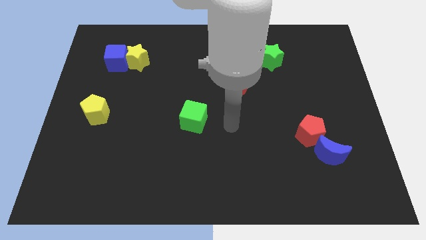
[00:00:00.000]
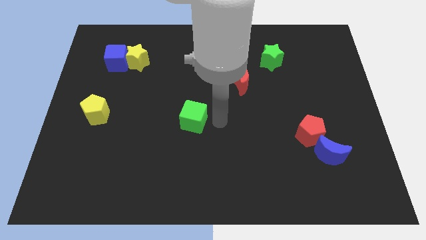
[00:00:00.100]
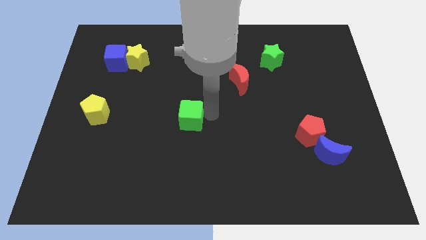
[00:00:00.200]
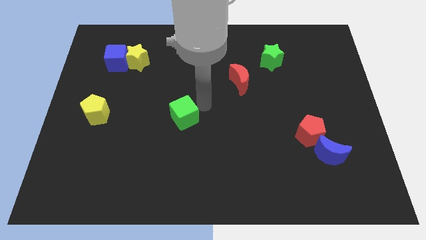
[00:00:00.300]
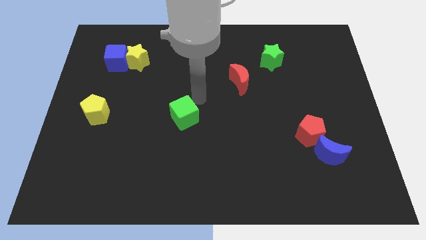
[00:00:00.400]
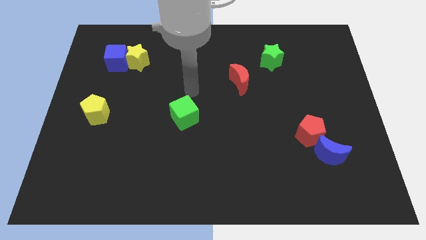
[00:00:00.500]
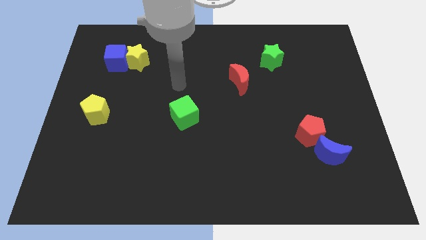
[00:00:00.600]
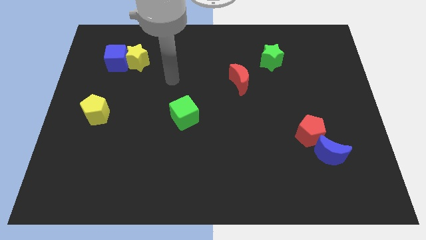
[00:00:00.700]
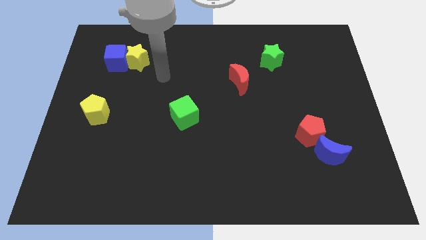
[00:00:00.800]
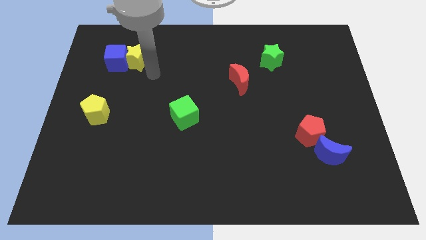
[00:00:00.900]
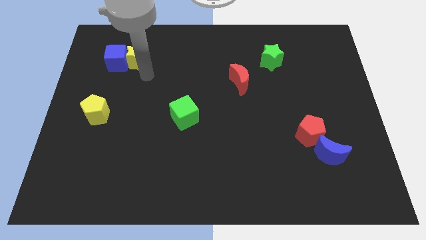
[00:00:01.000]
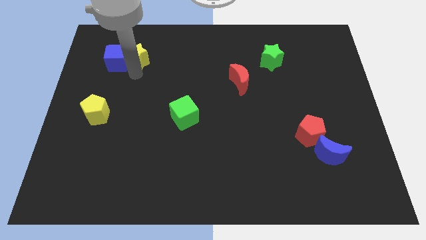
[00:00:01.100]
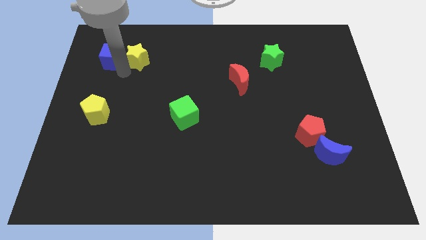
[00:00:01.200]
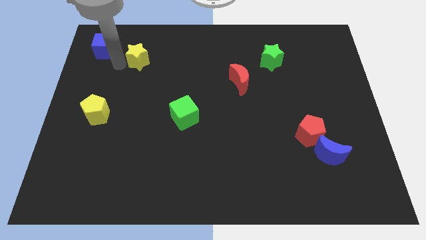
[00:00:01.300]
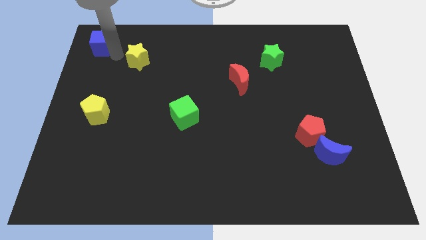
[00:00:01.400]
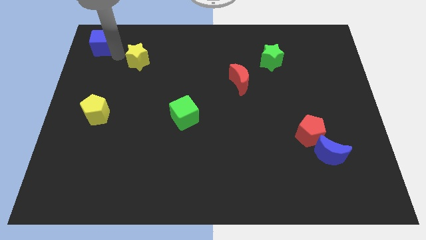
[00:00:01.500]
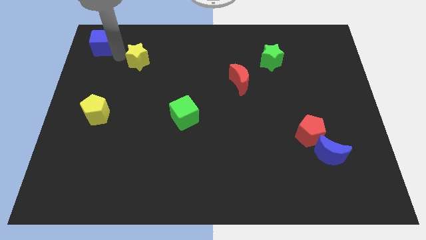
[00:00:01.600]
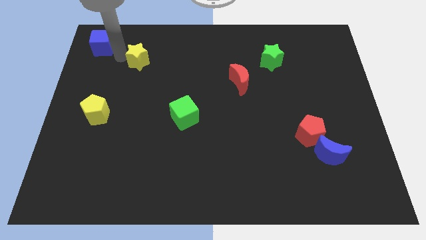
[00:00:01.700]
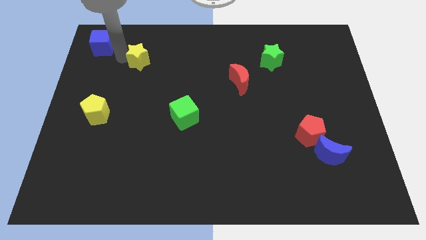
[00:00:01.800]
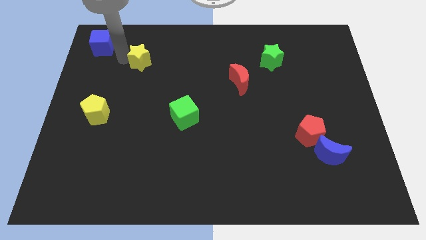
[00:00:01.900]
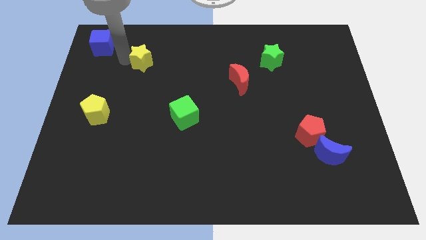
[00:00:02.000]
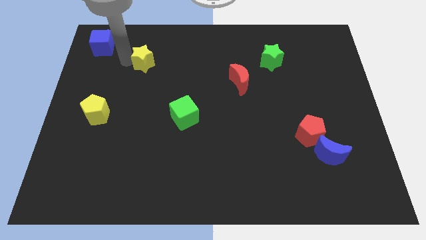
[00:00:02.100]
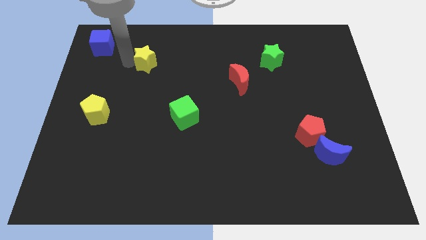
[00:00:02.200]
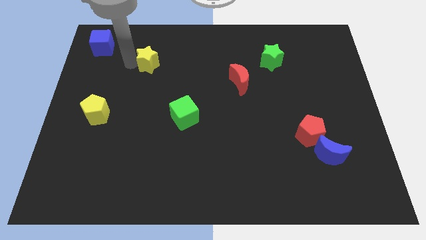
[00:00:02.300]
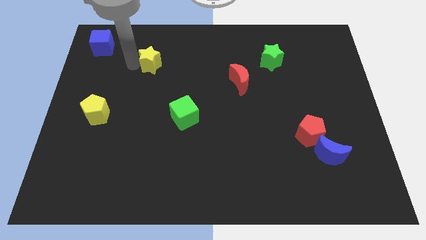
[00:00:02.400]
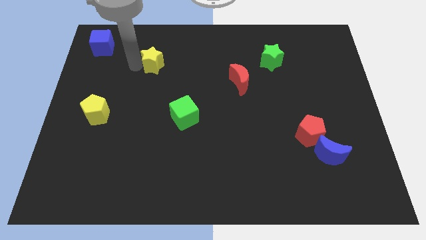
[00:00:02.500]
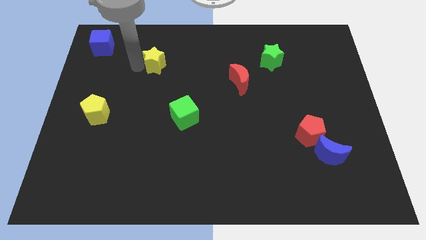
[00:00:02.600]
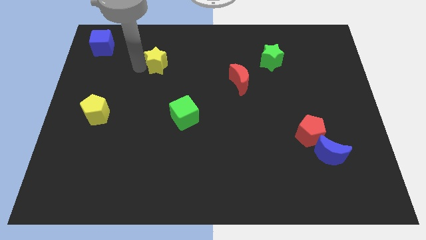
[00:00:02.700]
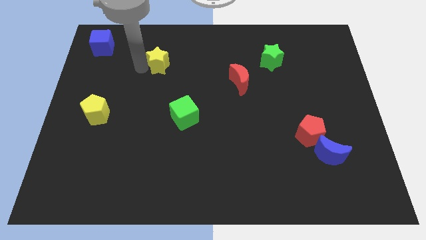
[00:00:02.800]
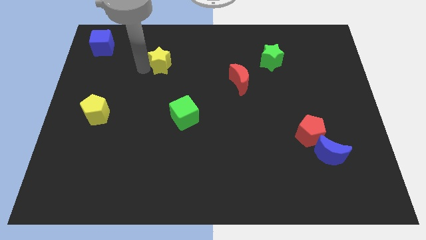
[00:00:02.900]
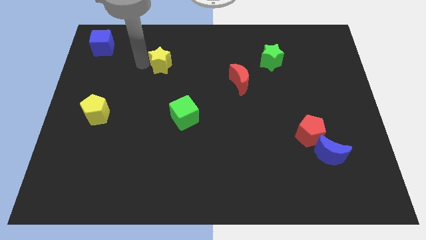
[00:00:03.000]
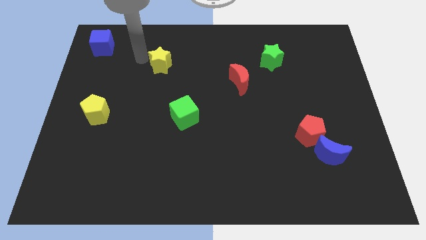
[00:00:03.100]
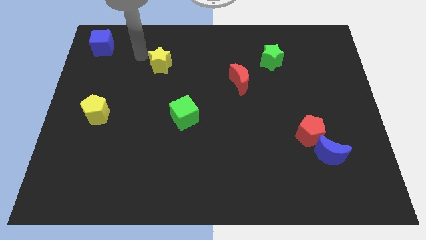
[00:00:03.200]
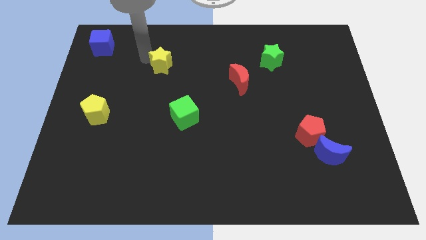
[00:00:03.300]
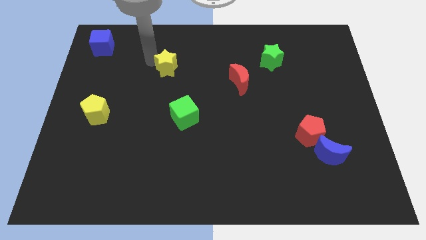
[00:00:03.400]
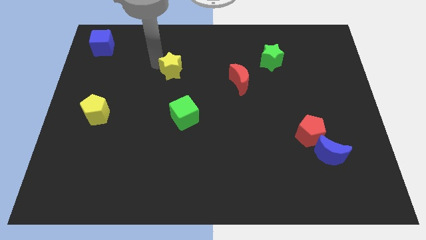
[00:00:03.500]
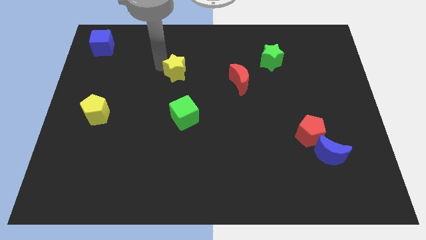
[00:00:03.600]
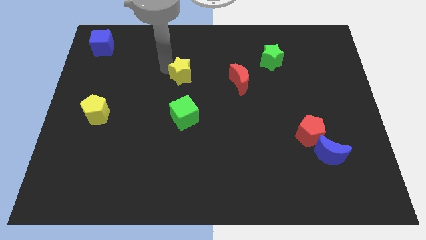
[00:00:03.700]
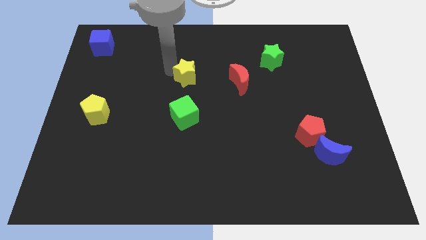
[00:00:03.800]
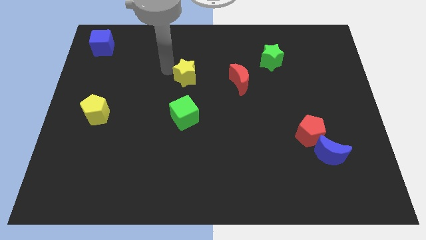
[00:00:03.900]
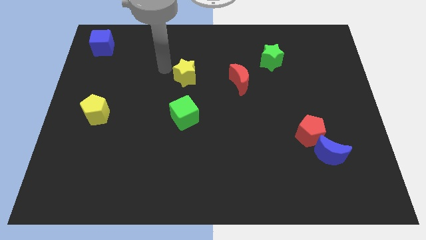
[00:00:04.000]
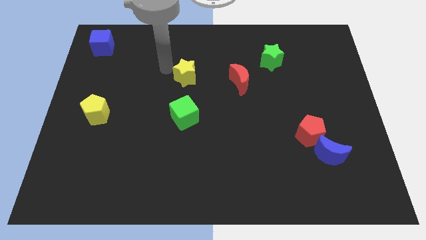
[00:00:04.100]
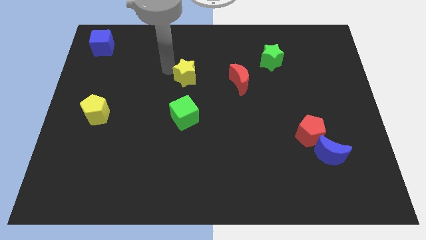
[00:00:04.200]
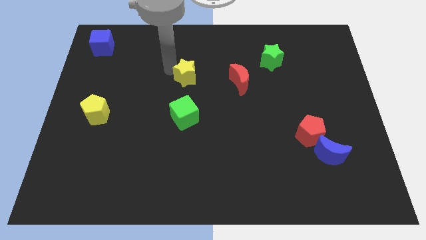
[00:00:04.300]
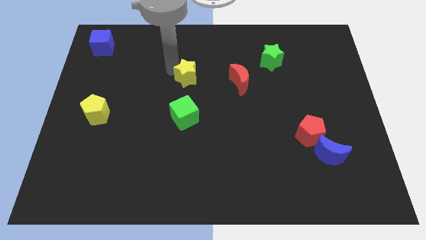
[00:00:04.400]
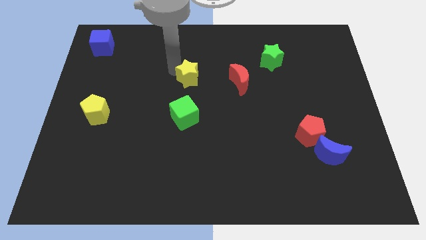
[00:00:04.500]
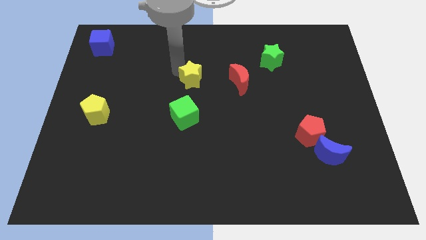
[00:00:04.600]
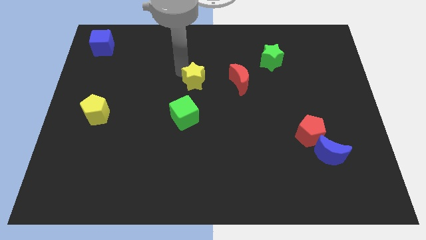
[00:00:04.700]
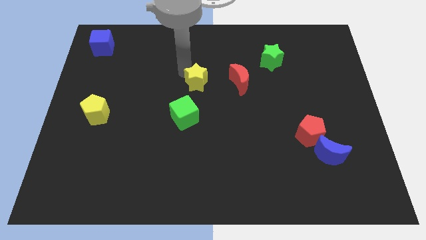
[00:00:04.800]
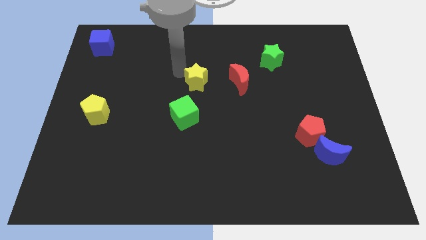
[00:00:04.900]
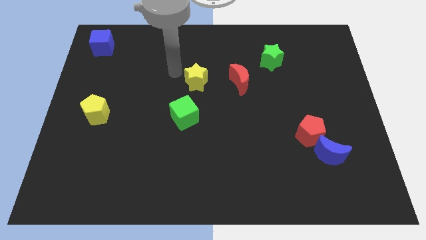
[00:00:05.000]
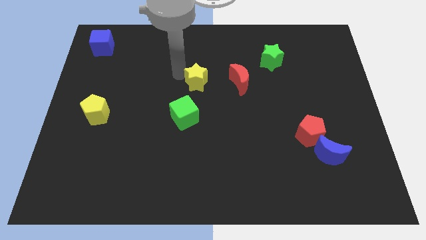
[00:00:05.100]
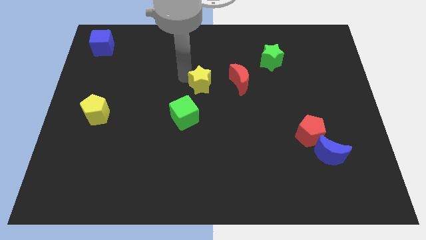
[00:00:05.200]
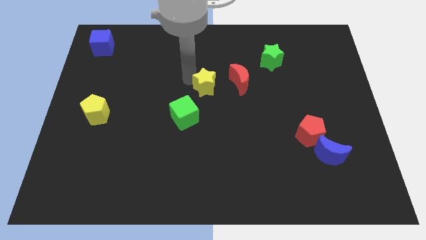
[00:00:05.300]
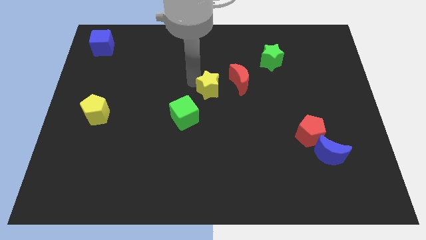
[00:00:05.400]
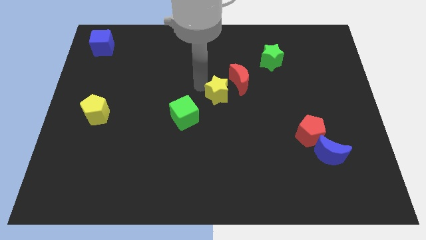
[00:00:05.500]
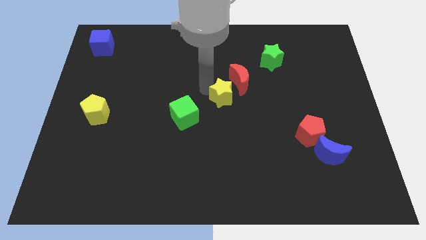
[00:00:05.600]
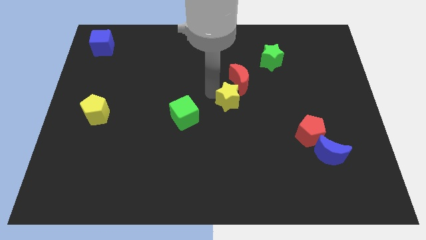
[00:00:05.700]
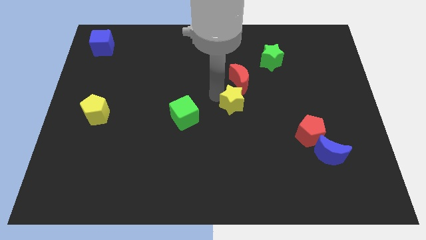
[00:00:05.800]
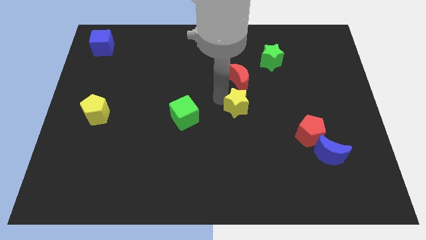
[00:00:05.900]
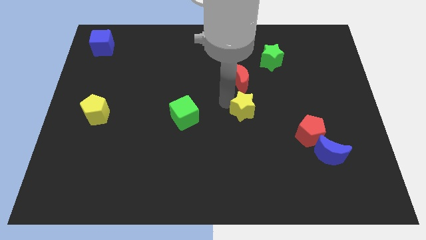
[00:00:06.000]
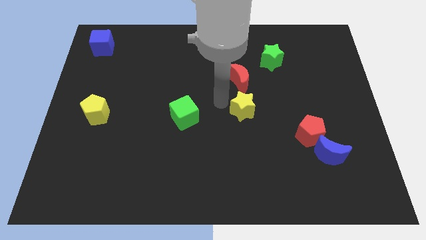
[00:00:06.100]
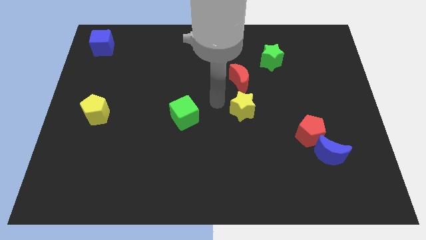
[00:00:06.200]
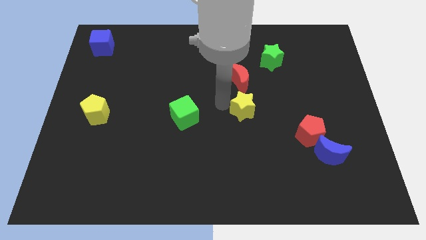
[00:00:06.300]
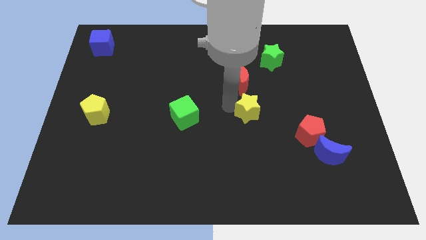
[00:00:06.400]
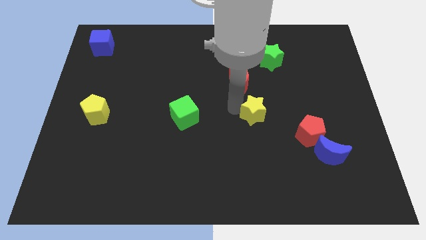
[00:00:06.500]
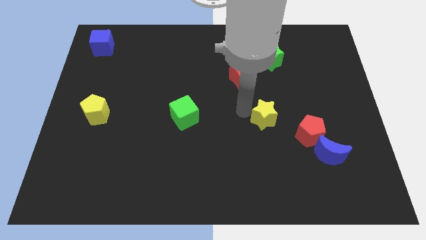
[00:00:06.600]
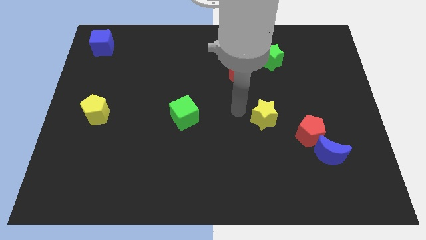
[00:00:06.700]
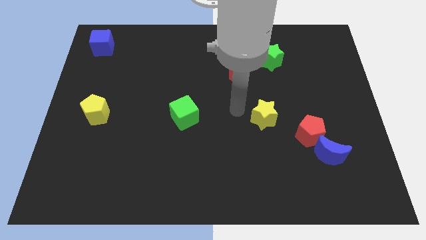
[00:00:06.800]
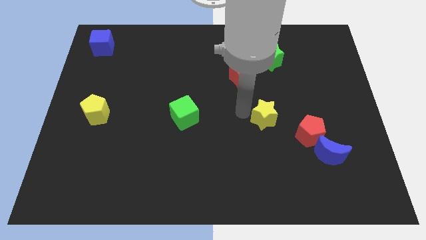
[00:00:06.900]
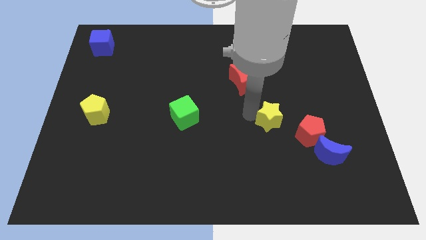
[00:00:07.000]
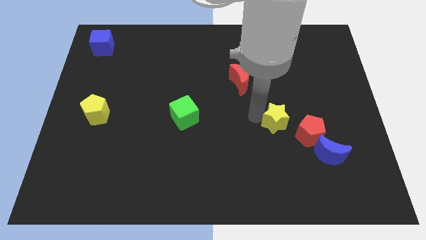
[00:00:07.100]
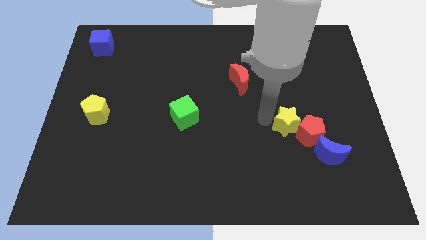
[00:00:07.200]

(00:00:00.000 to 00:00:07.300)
slide the yellow star next to the red pentagon
